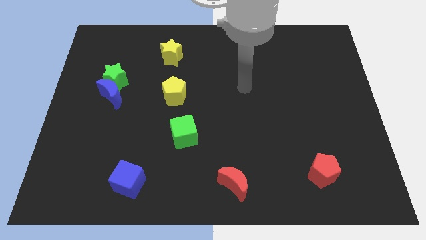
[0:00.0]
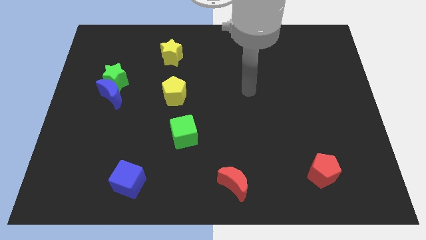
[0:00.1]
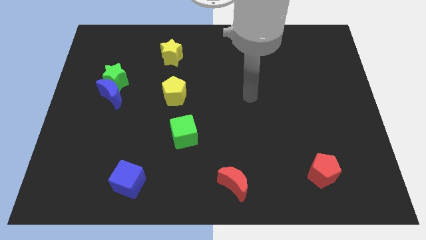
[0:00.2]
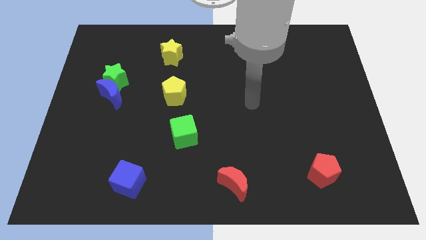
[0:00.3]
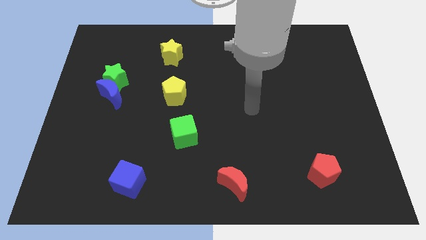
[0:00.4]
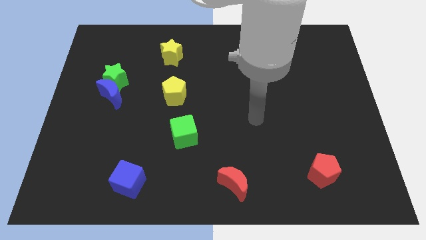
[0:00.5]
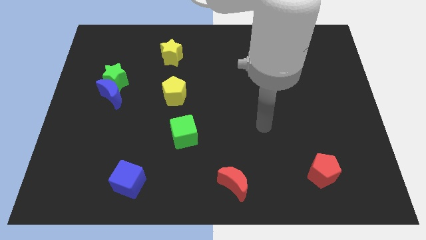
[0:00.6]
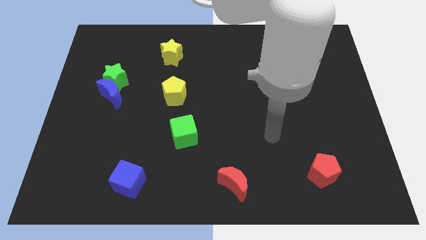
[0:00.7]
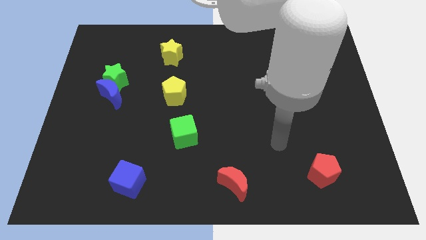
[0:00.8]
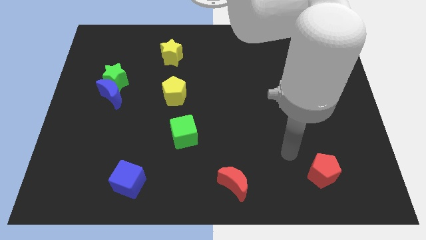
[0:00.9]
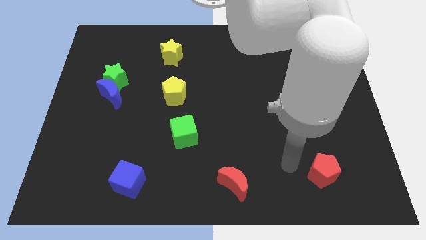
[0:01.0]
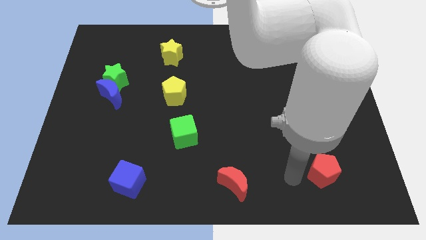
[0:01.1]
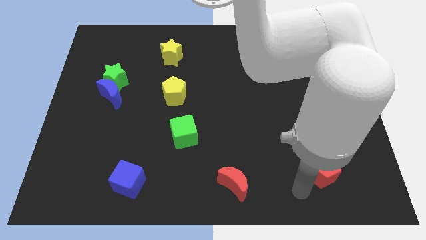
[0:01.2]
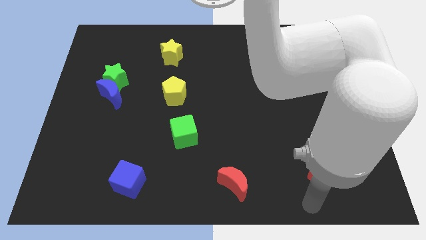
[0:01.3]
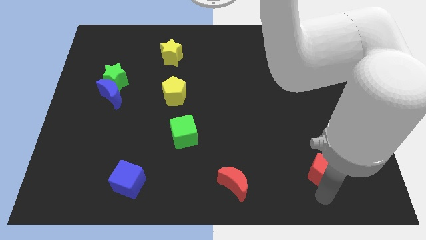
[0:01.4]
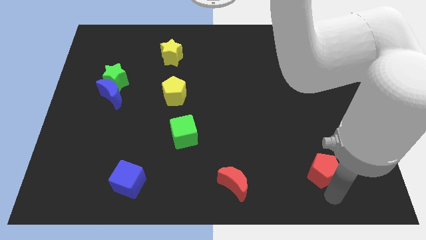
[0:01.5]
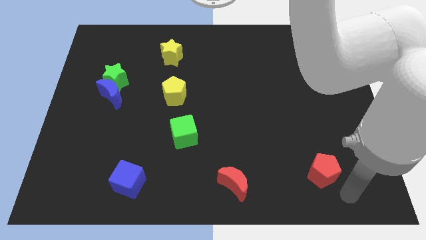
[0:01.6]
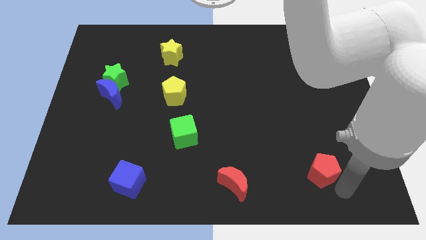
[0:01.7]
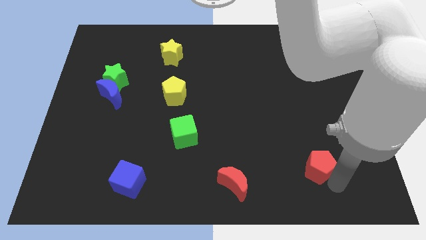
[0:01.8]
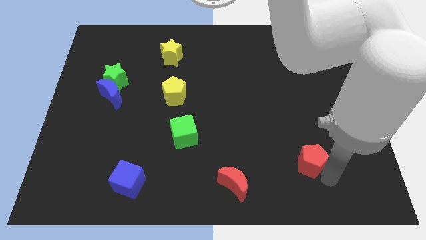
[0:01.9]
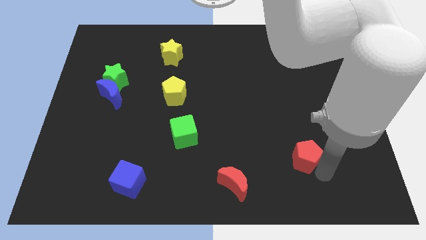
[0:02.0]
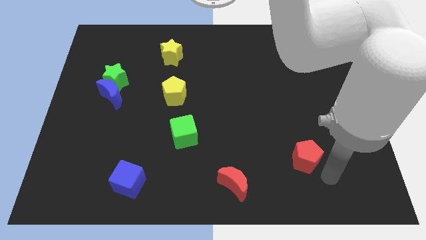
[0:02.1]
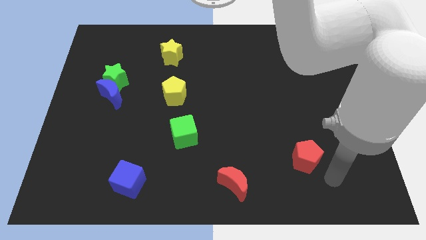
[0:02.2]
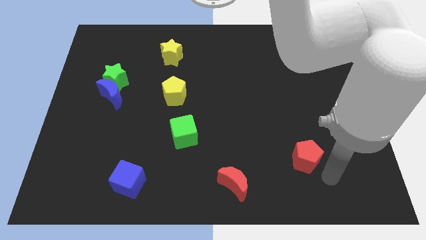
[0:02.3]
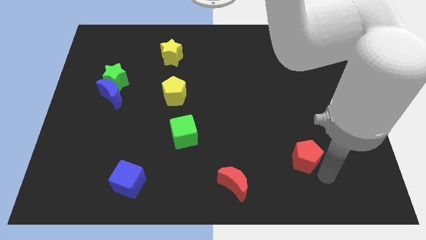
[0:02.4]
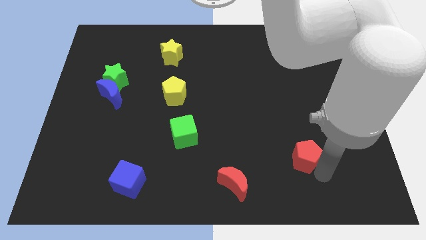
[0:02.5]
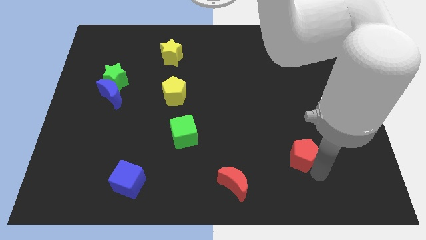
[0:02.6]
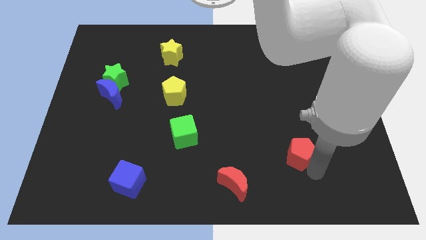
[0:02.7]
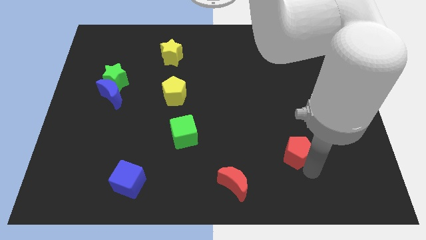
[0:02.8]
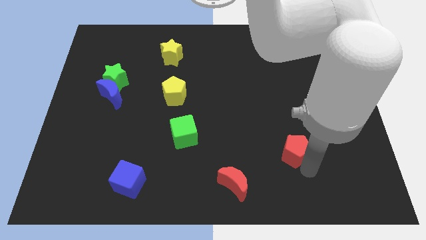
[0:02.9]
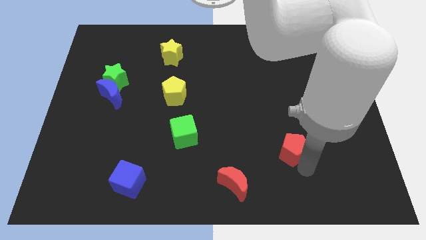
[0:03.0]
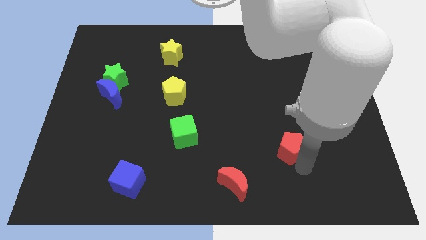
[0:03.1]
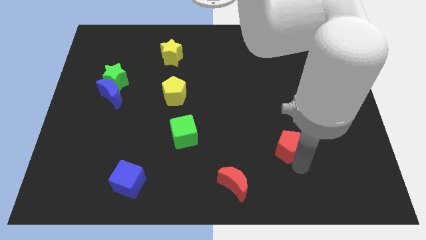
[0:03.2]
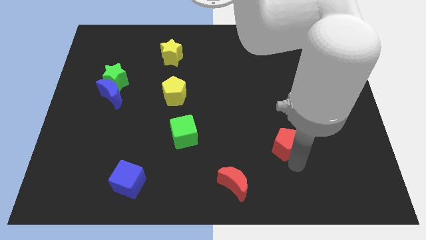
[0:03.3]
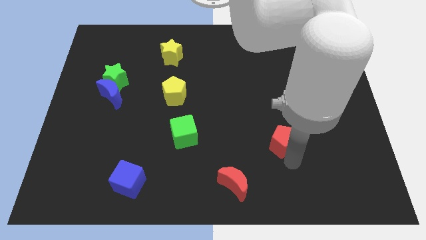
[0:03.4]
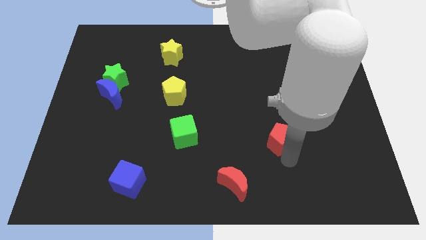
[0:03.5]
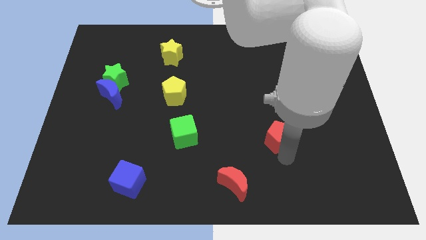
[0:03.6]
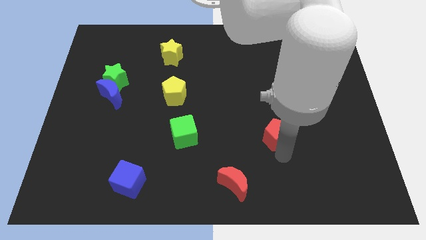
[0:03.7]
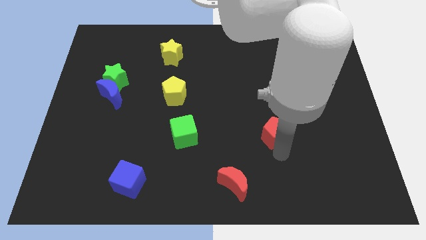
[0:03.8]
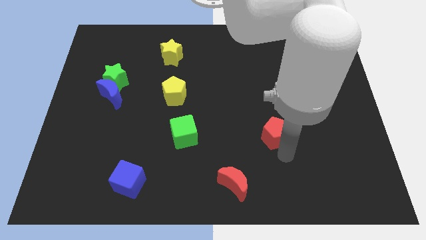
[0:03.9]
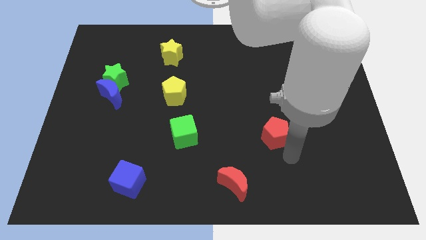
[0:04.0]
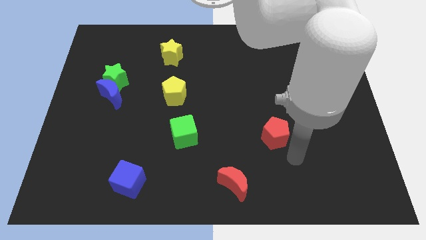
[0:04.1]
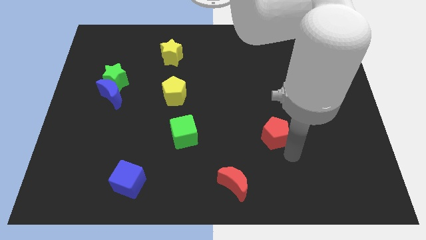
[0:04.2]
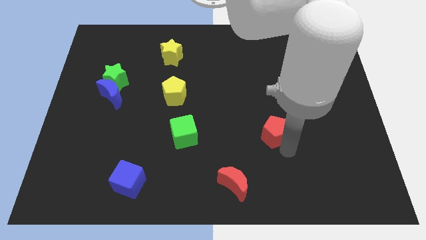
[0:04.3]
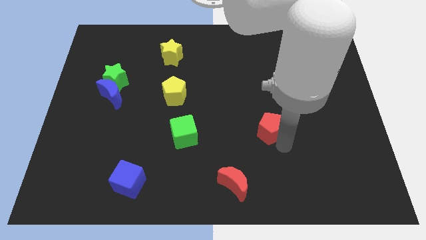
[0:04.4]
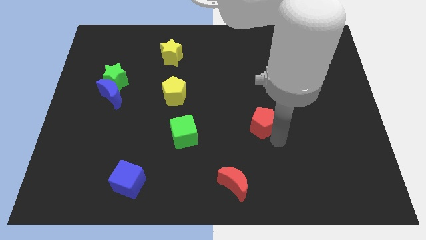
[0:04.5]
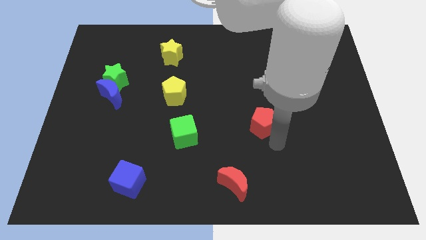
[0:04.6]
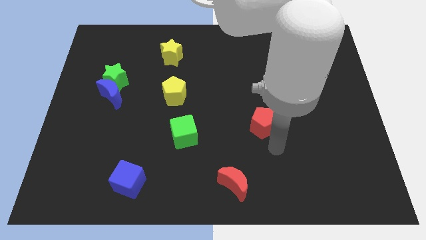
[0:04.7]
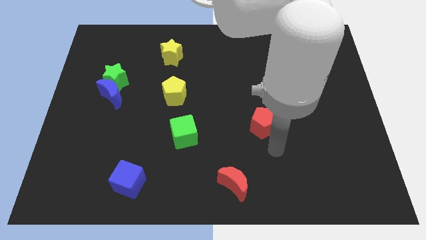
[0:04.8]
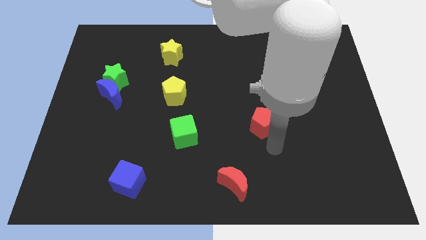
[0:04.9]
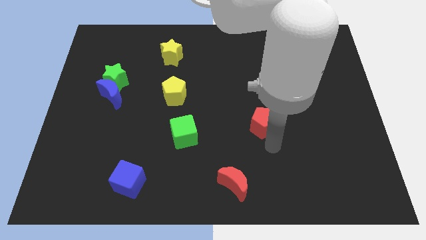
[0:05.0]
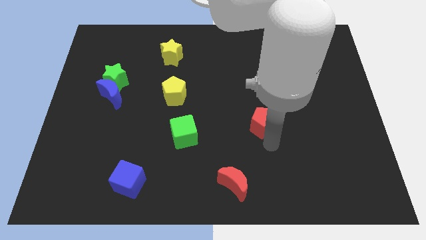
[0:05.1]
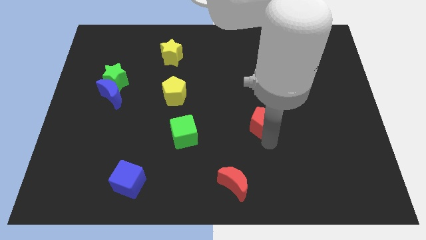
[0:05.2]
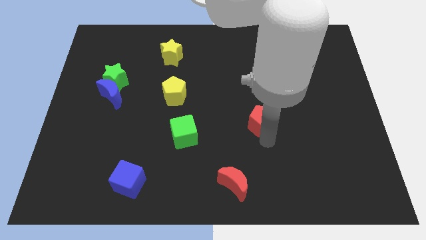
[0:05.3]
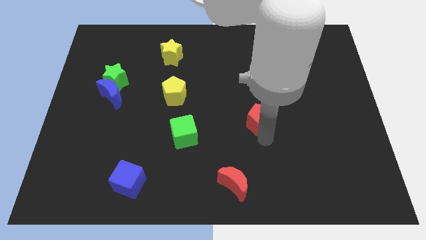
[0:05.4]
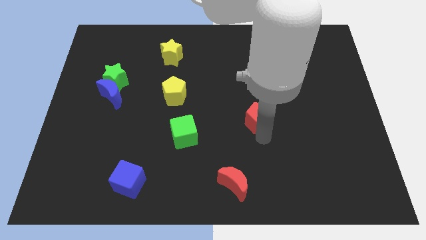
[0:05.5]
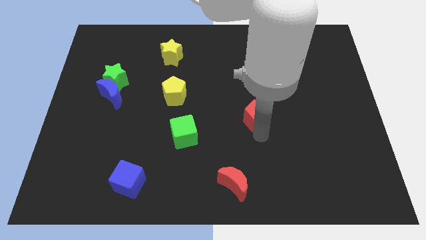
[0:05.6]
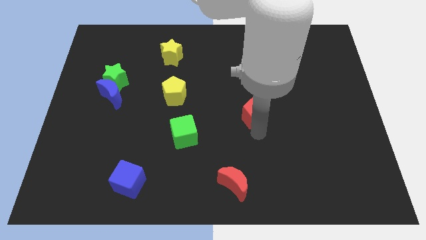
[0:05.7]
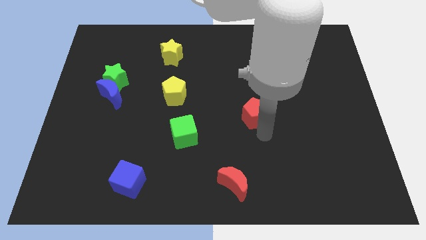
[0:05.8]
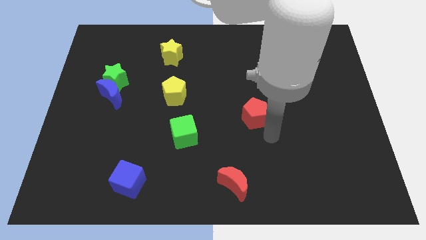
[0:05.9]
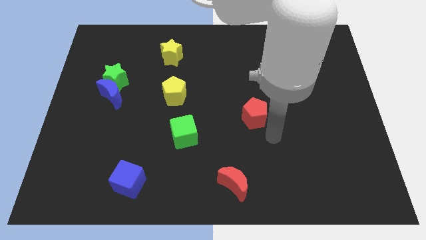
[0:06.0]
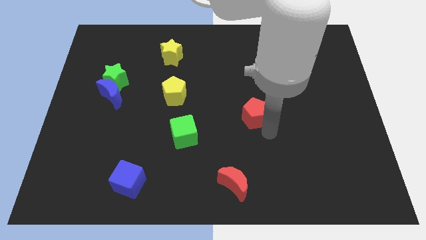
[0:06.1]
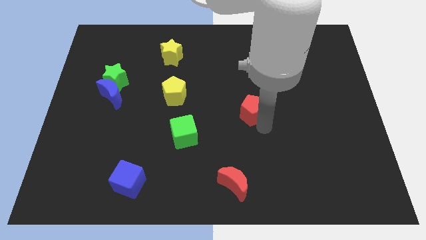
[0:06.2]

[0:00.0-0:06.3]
move the red pentagon diagonally upwards and left

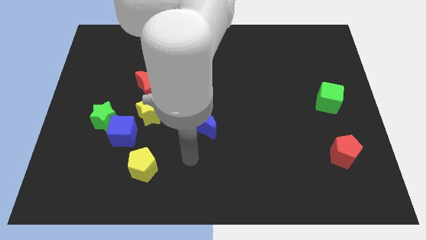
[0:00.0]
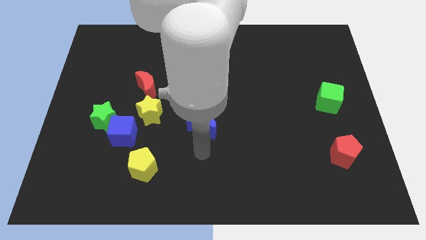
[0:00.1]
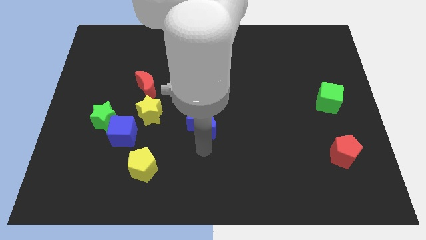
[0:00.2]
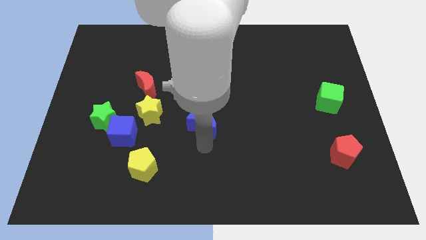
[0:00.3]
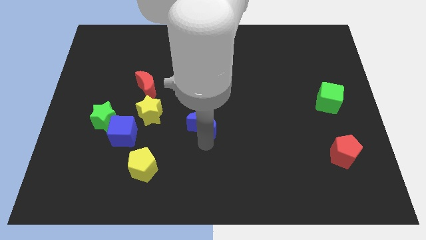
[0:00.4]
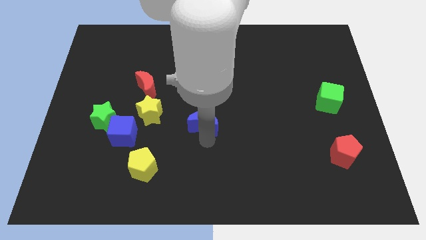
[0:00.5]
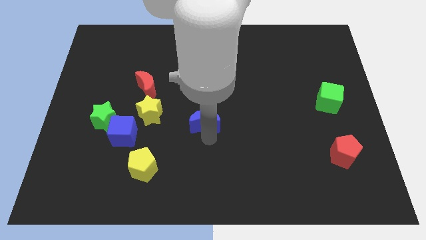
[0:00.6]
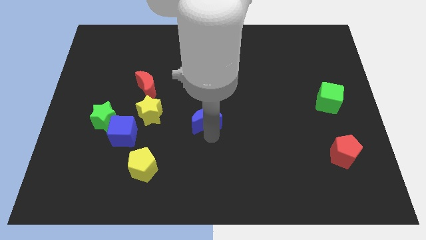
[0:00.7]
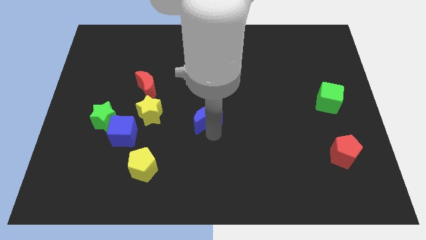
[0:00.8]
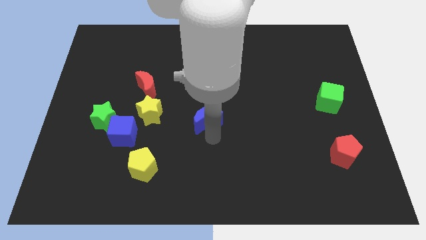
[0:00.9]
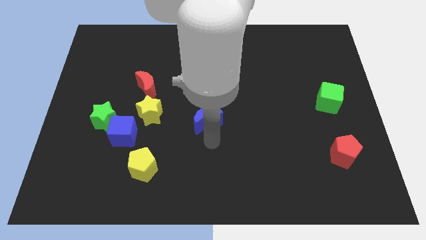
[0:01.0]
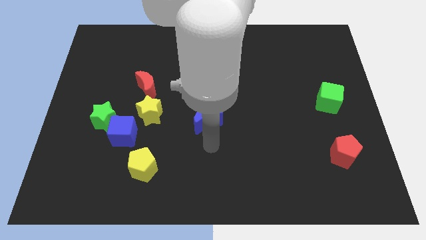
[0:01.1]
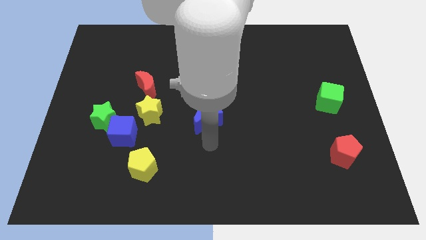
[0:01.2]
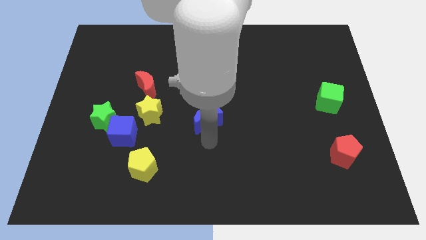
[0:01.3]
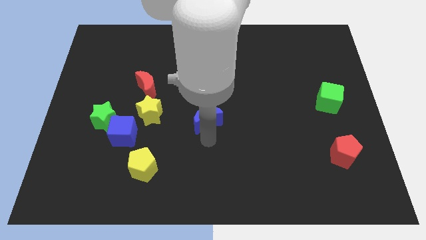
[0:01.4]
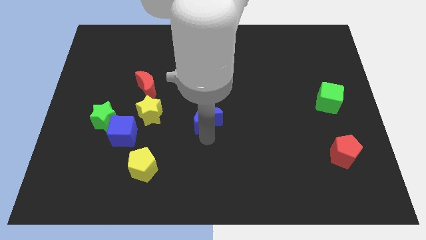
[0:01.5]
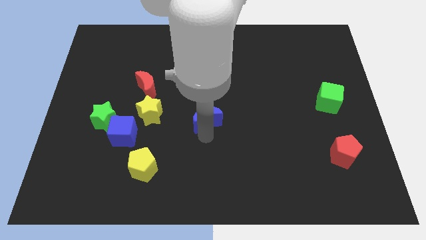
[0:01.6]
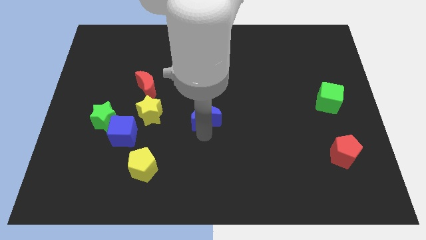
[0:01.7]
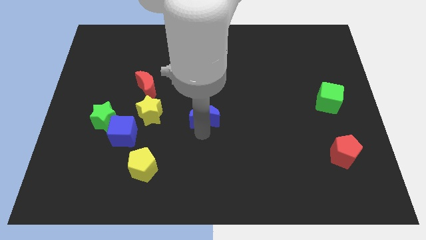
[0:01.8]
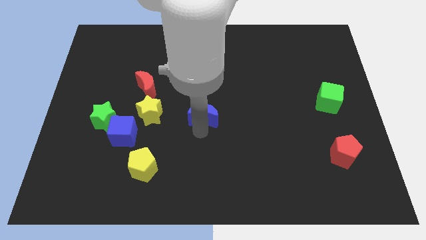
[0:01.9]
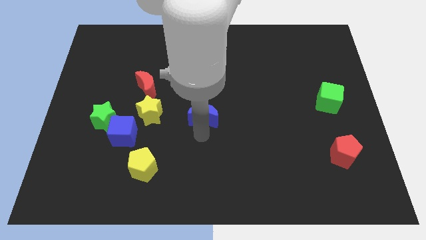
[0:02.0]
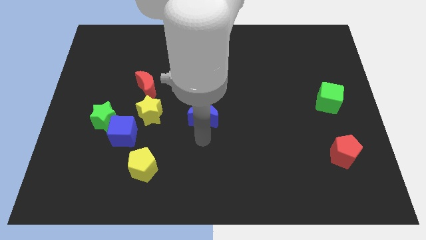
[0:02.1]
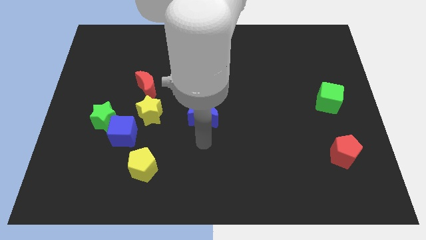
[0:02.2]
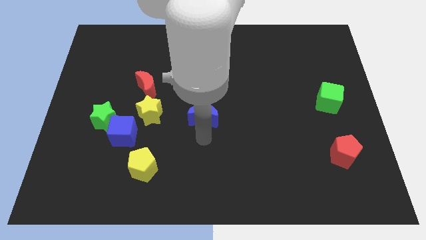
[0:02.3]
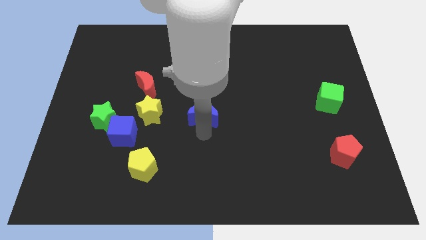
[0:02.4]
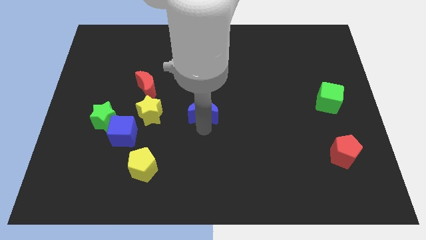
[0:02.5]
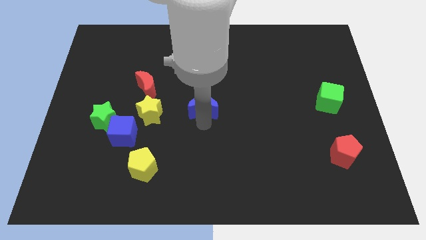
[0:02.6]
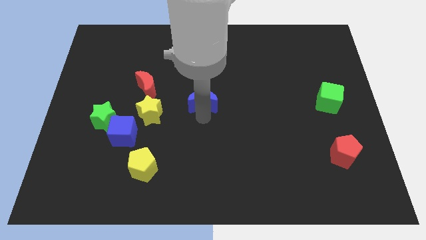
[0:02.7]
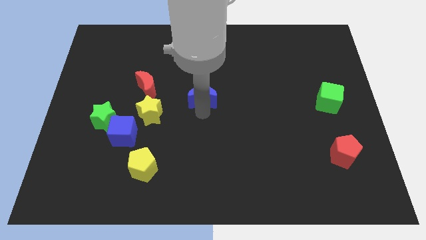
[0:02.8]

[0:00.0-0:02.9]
slightly slide the blue moon up
